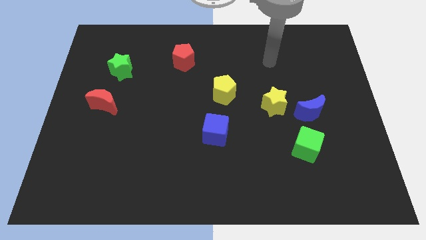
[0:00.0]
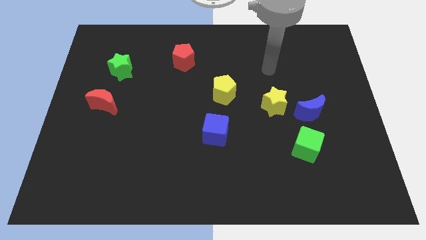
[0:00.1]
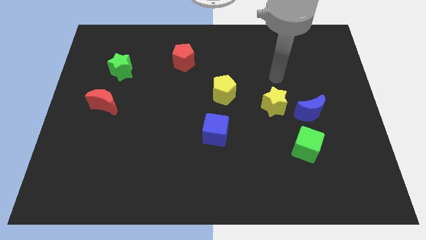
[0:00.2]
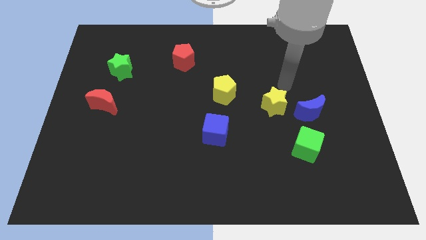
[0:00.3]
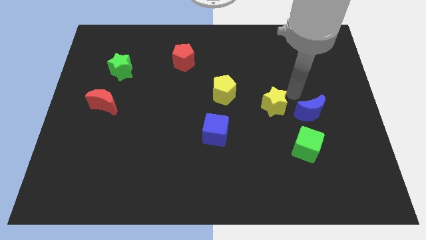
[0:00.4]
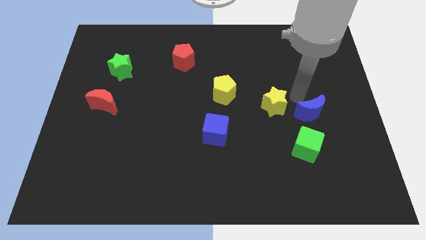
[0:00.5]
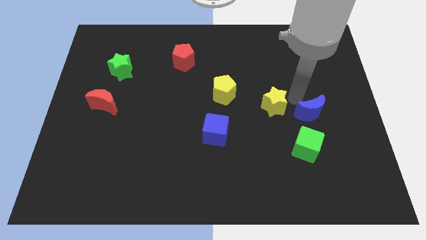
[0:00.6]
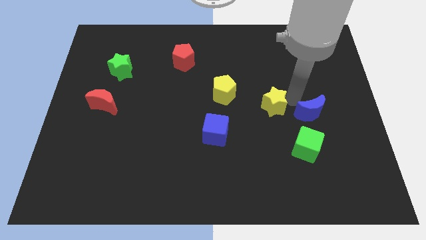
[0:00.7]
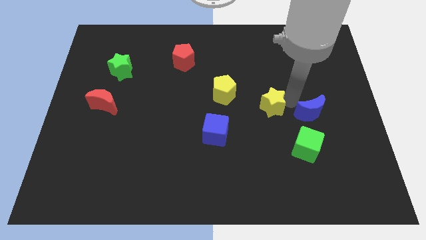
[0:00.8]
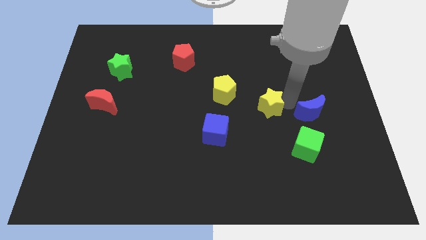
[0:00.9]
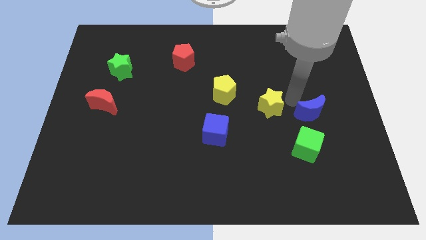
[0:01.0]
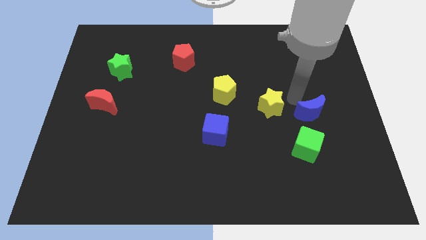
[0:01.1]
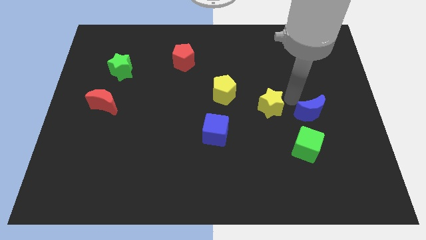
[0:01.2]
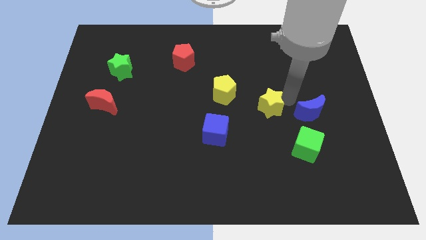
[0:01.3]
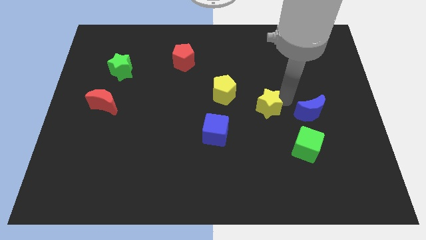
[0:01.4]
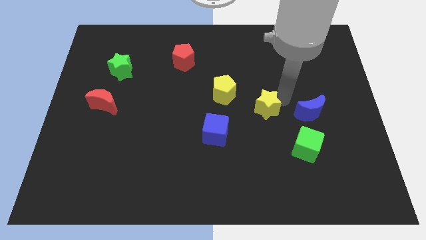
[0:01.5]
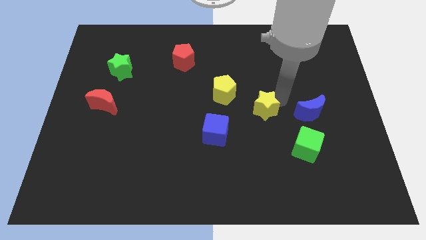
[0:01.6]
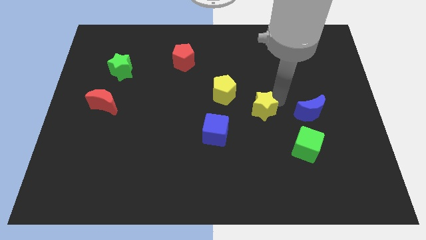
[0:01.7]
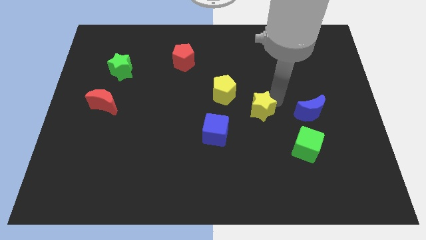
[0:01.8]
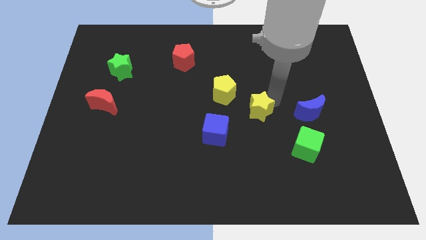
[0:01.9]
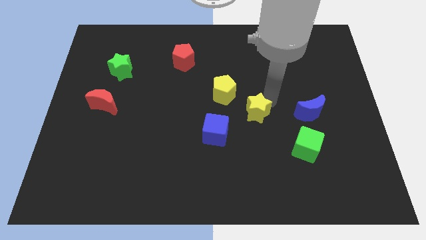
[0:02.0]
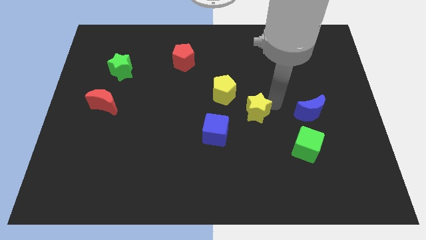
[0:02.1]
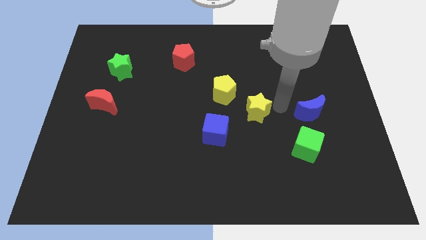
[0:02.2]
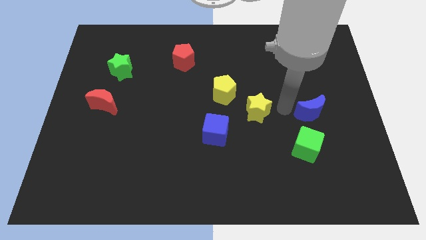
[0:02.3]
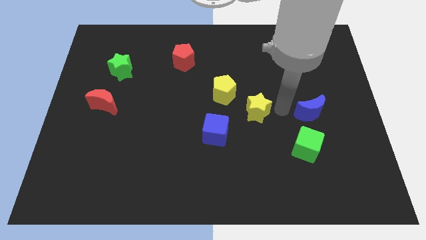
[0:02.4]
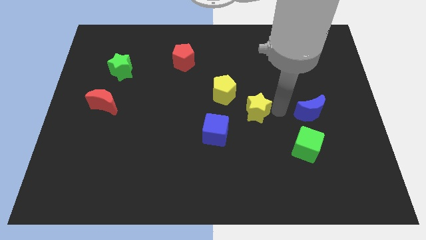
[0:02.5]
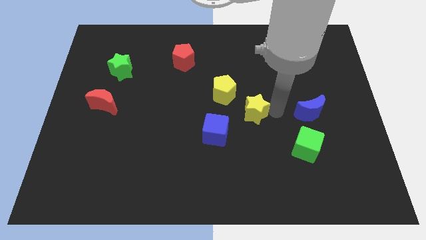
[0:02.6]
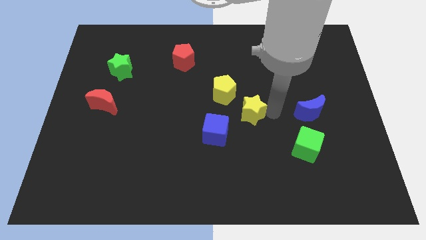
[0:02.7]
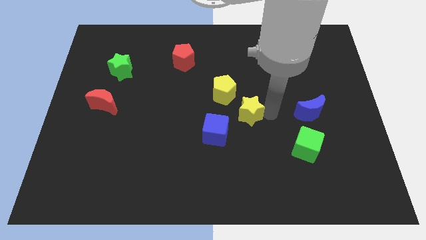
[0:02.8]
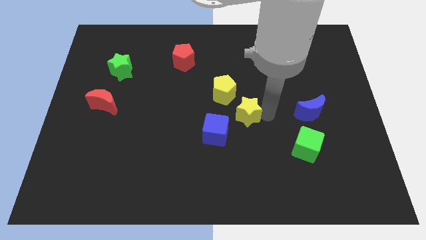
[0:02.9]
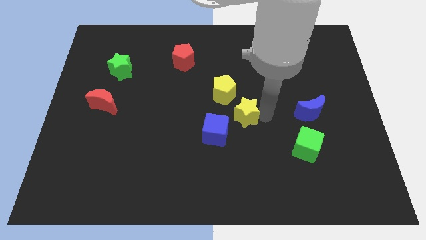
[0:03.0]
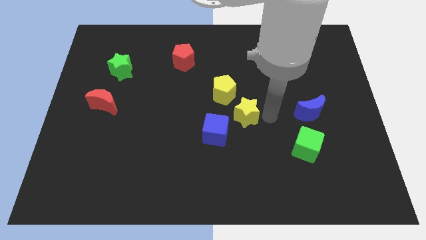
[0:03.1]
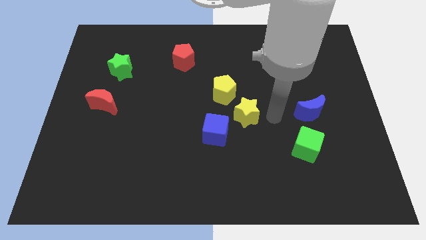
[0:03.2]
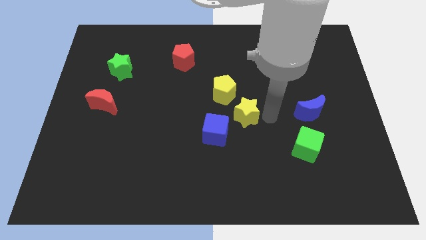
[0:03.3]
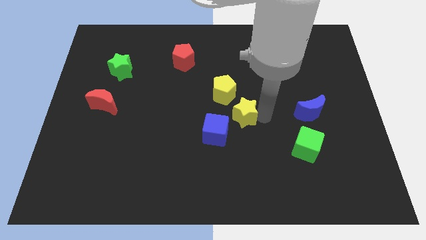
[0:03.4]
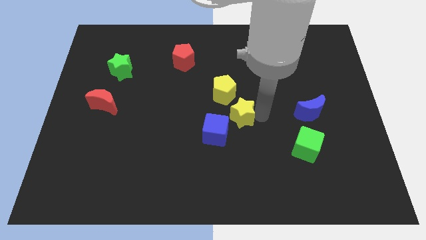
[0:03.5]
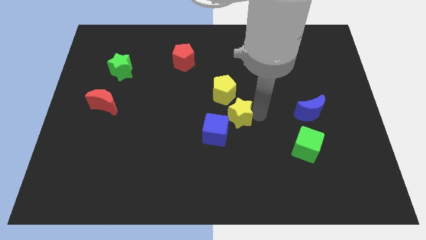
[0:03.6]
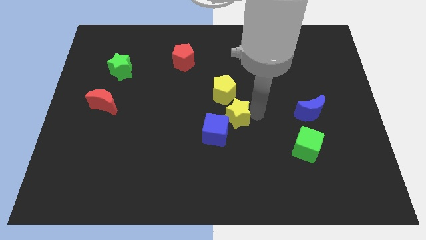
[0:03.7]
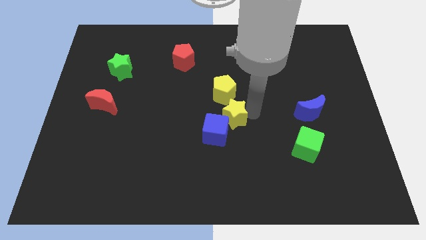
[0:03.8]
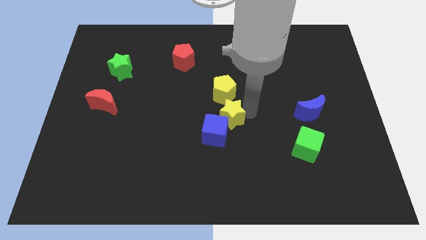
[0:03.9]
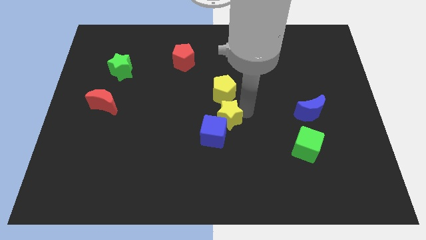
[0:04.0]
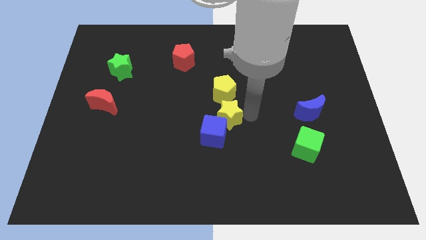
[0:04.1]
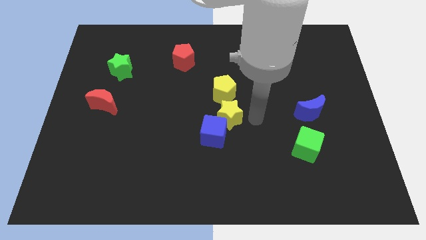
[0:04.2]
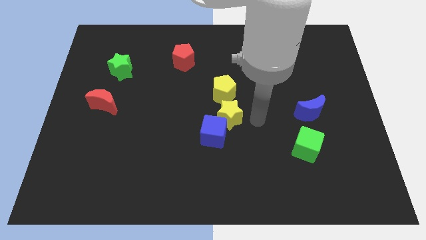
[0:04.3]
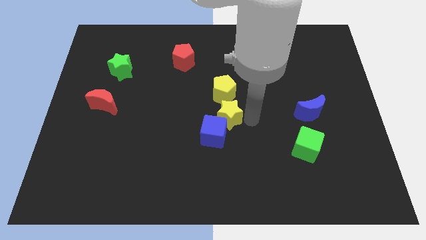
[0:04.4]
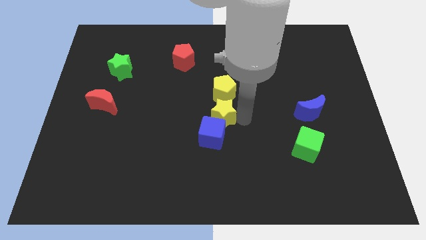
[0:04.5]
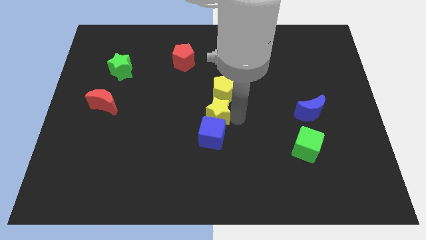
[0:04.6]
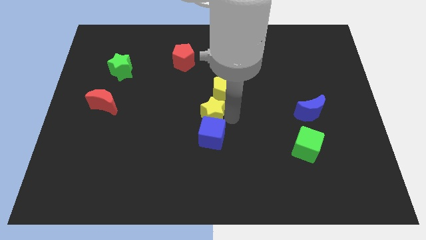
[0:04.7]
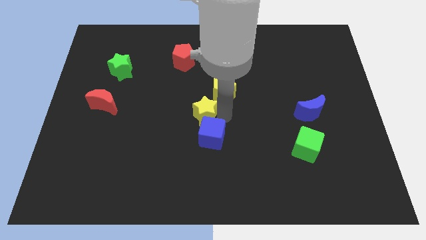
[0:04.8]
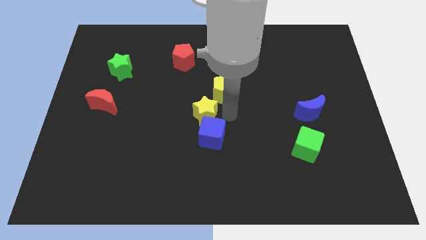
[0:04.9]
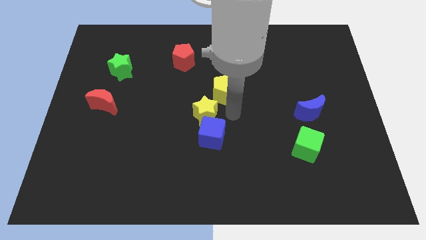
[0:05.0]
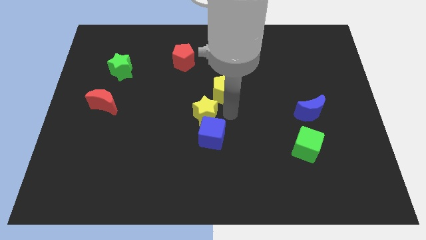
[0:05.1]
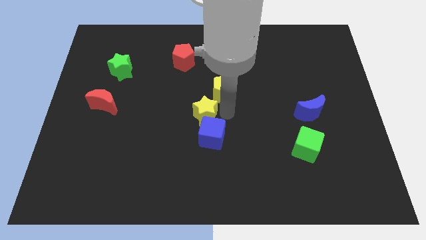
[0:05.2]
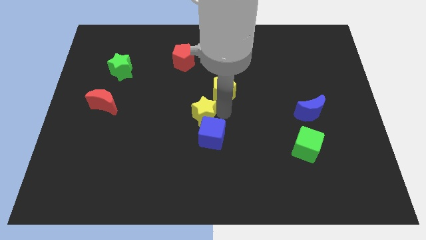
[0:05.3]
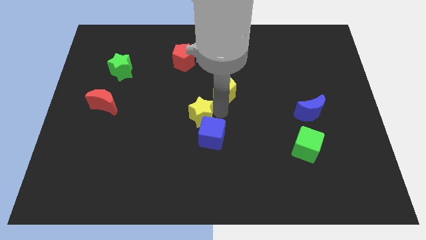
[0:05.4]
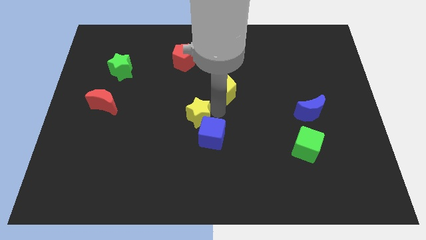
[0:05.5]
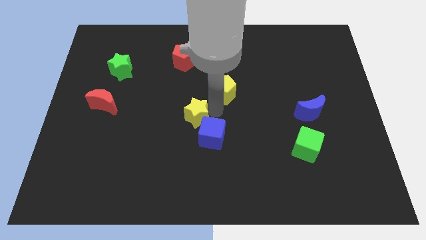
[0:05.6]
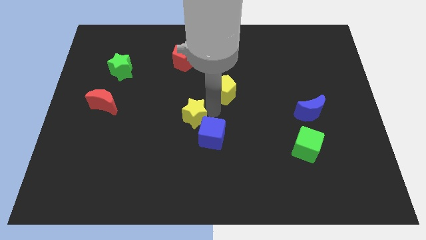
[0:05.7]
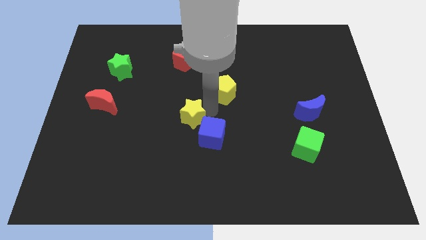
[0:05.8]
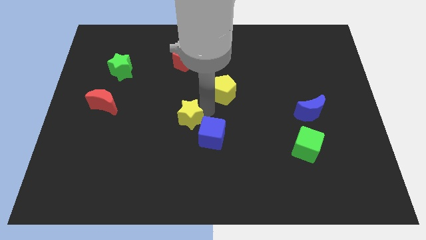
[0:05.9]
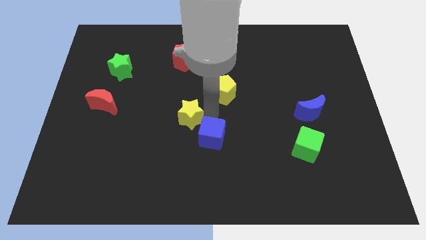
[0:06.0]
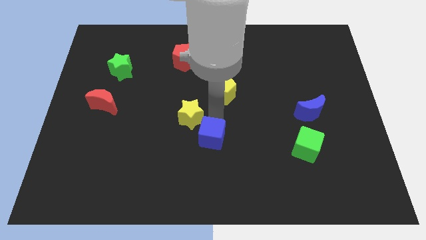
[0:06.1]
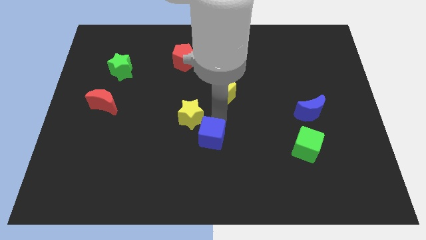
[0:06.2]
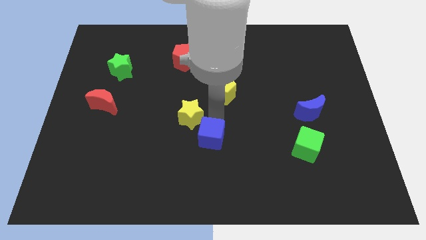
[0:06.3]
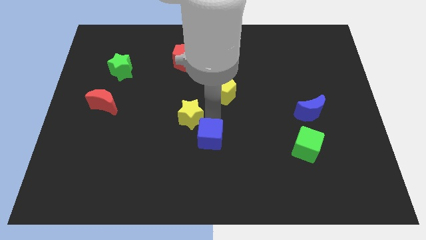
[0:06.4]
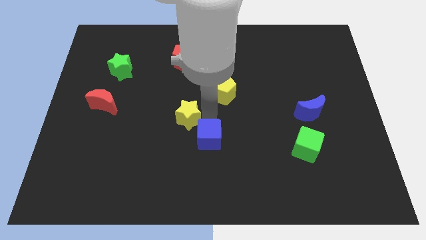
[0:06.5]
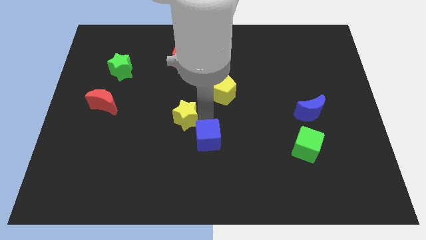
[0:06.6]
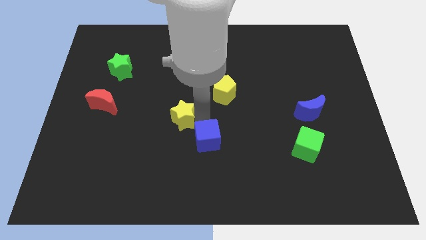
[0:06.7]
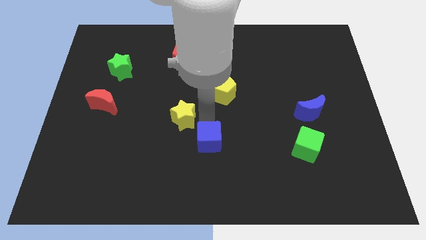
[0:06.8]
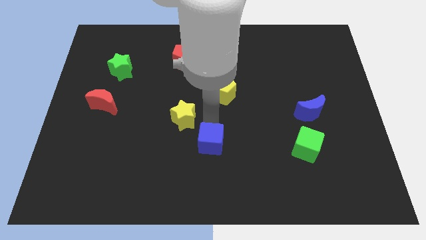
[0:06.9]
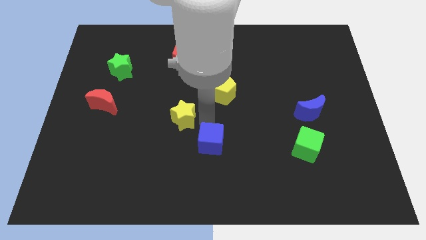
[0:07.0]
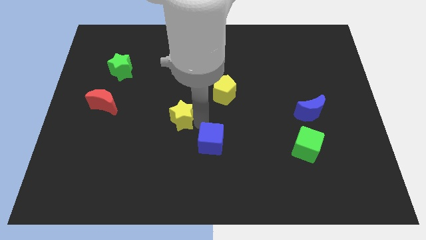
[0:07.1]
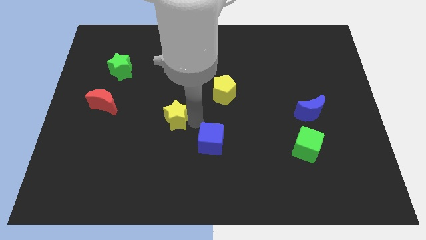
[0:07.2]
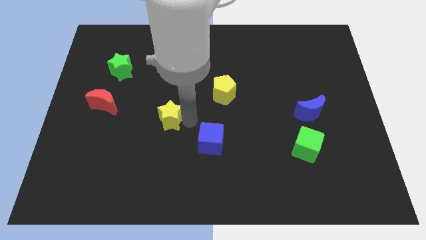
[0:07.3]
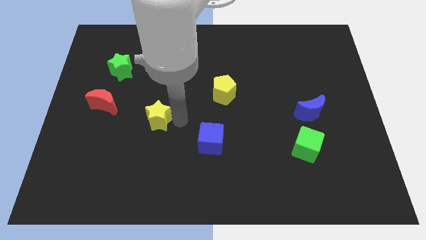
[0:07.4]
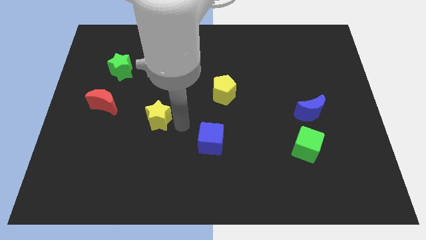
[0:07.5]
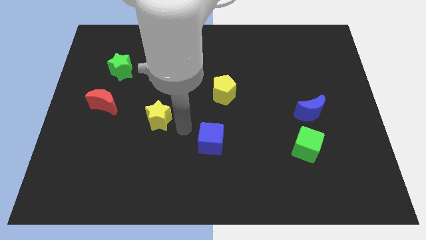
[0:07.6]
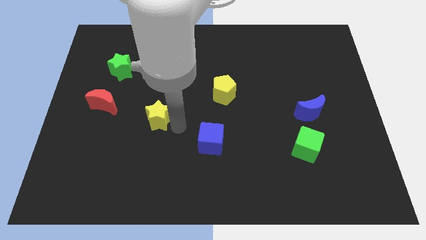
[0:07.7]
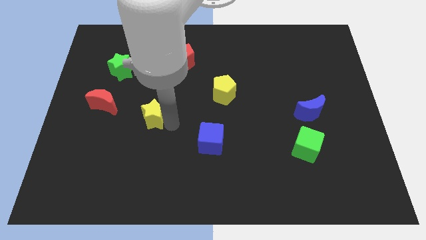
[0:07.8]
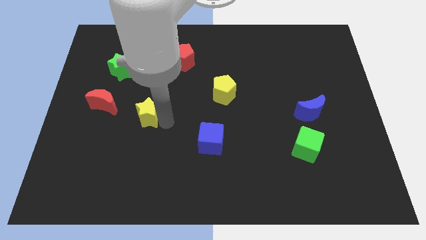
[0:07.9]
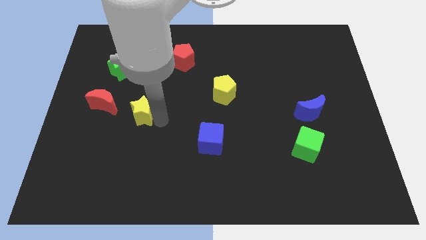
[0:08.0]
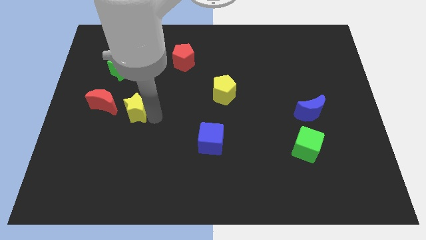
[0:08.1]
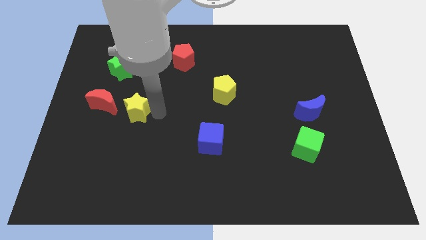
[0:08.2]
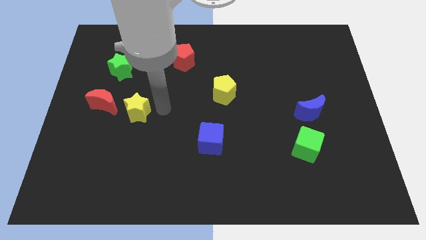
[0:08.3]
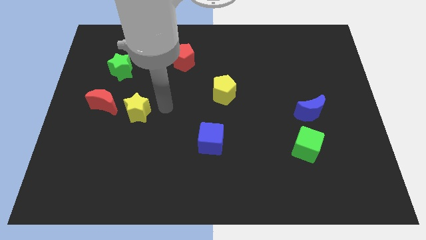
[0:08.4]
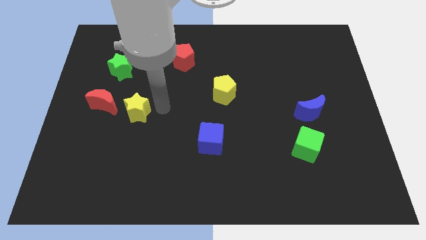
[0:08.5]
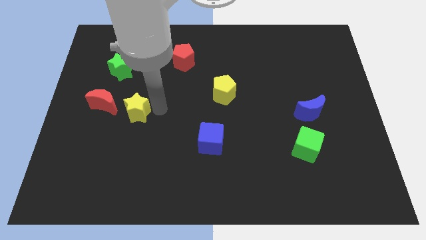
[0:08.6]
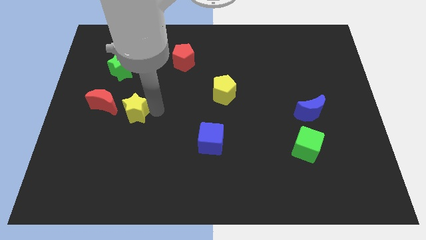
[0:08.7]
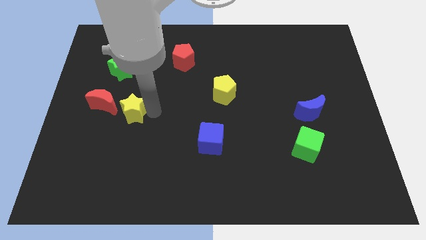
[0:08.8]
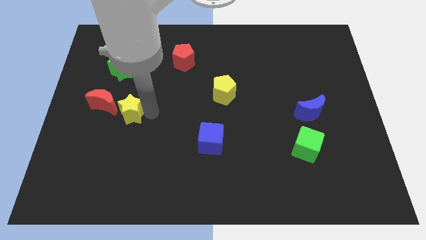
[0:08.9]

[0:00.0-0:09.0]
put the yellow star below the green star
